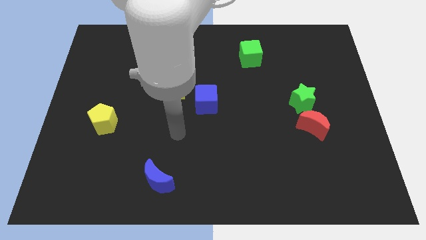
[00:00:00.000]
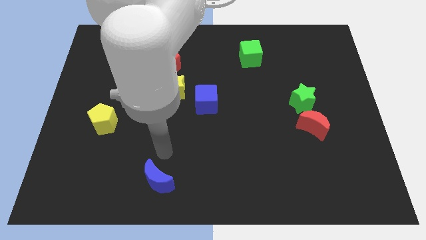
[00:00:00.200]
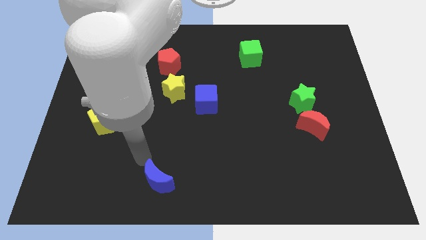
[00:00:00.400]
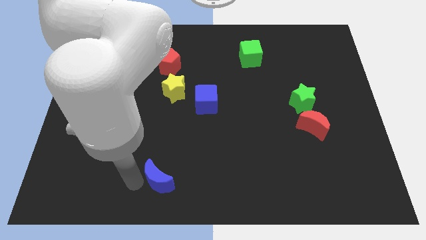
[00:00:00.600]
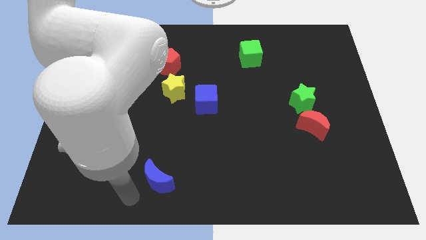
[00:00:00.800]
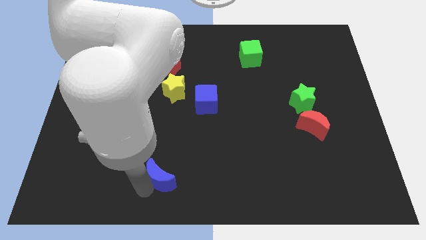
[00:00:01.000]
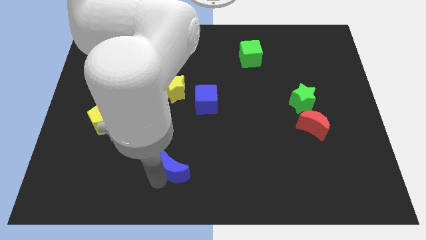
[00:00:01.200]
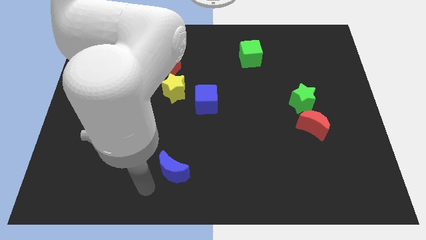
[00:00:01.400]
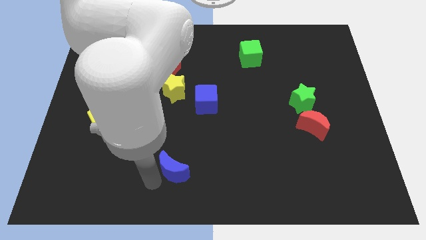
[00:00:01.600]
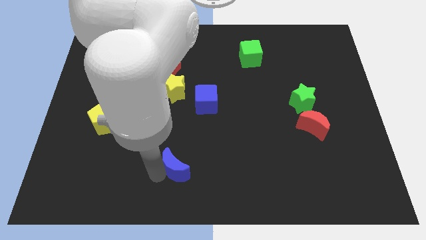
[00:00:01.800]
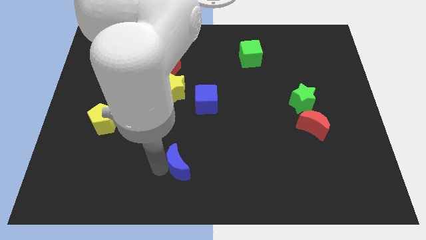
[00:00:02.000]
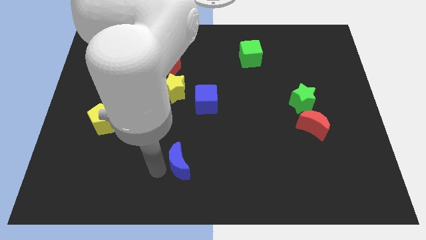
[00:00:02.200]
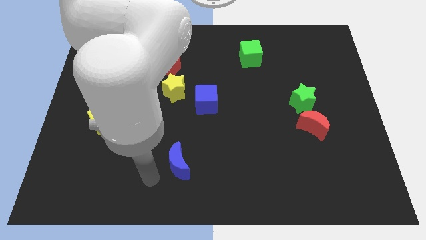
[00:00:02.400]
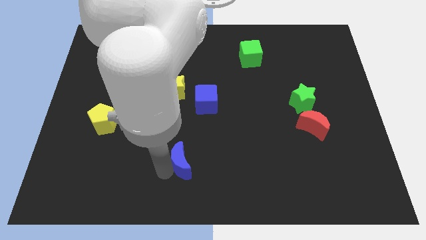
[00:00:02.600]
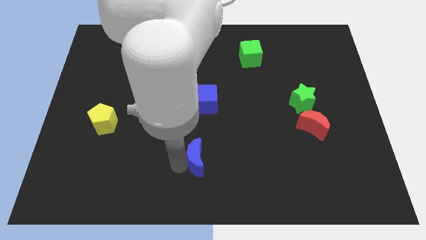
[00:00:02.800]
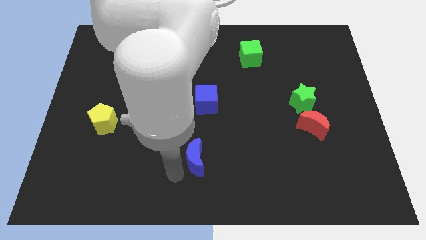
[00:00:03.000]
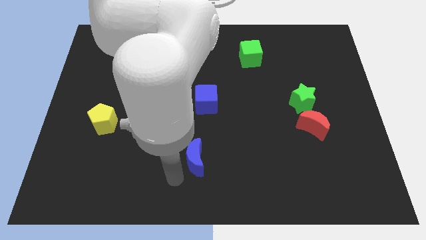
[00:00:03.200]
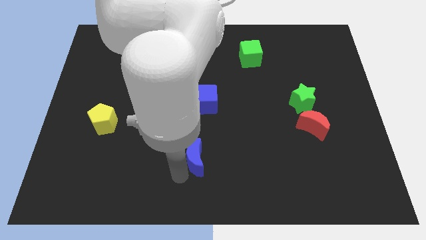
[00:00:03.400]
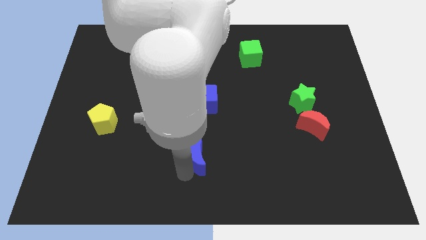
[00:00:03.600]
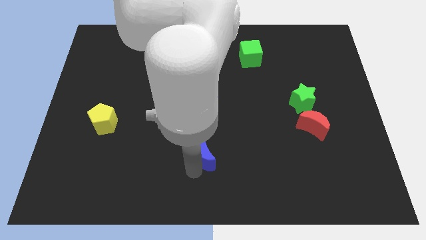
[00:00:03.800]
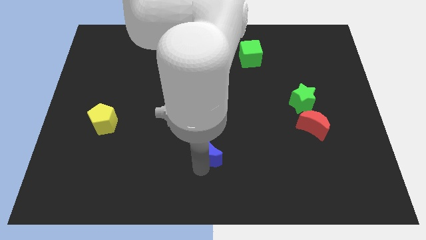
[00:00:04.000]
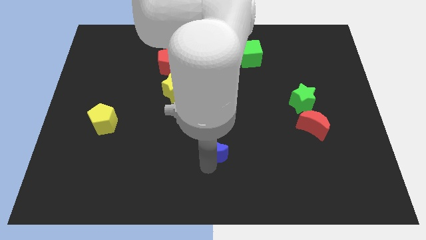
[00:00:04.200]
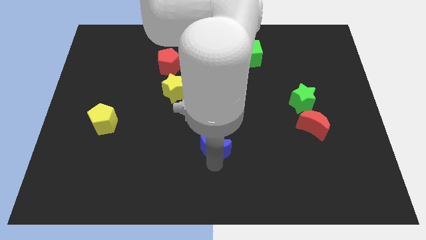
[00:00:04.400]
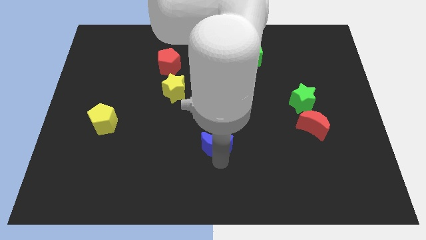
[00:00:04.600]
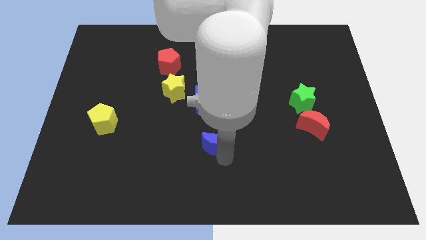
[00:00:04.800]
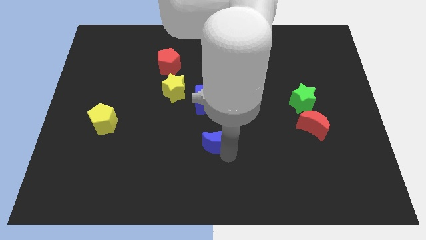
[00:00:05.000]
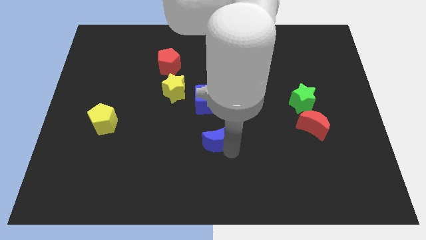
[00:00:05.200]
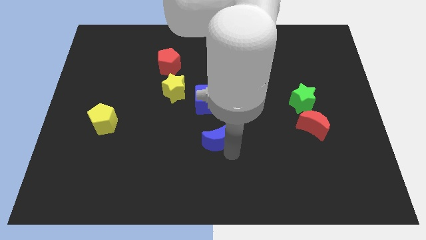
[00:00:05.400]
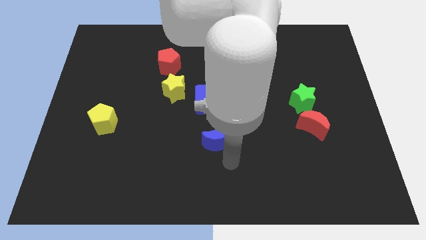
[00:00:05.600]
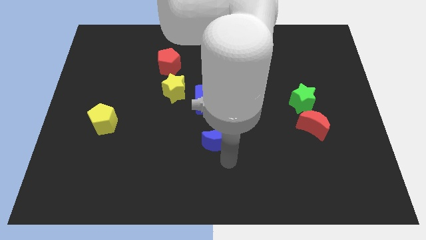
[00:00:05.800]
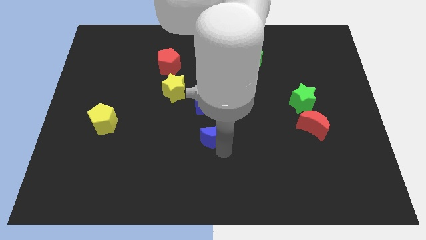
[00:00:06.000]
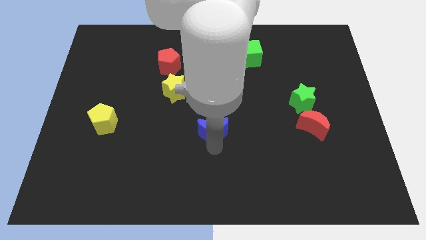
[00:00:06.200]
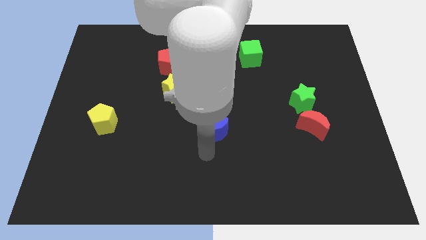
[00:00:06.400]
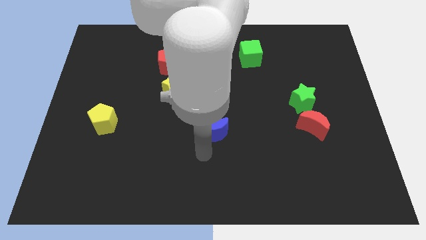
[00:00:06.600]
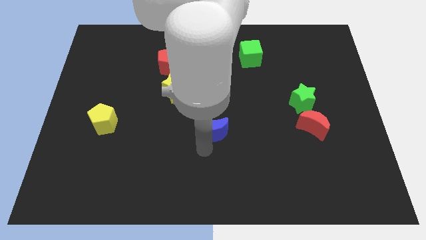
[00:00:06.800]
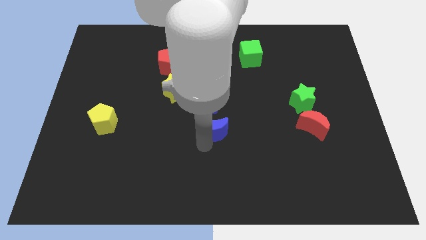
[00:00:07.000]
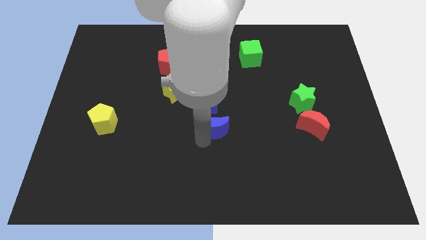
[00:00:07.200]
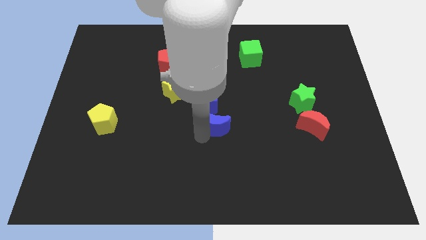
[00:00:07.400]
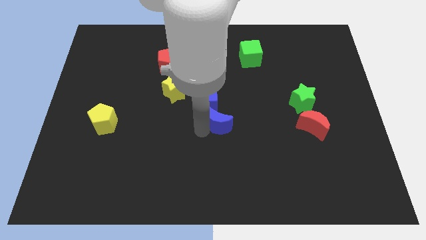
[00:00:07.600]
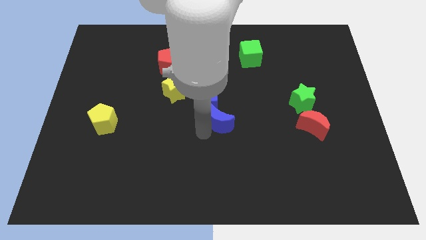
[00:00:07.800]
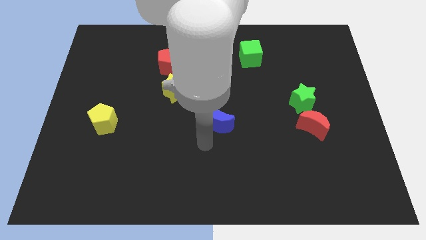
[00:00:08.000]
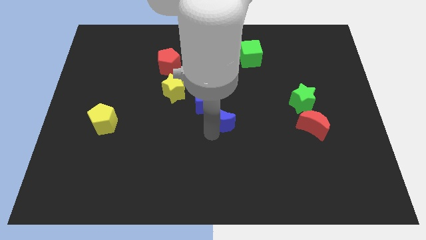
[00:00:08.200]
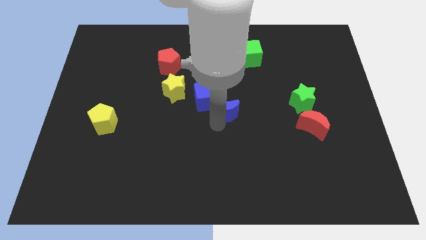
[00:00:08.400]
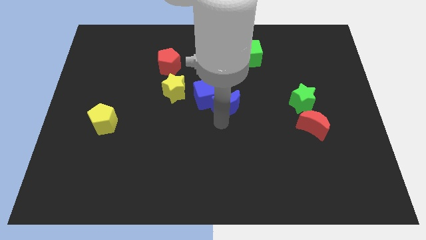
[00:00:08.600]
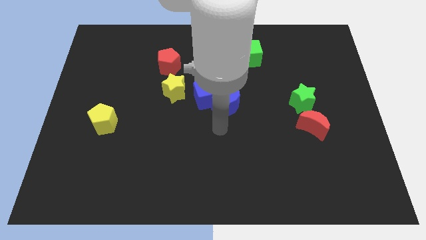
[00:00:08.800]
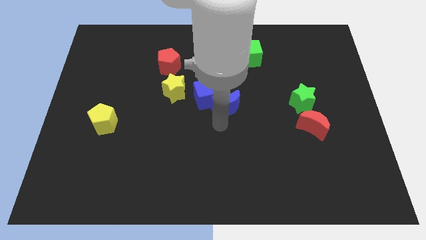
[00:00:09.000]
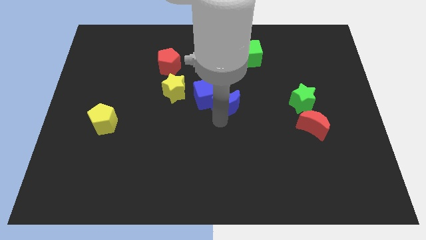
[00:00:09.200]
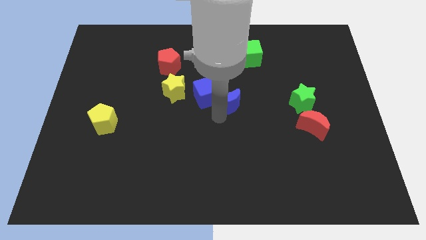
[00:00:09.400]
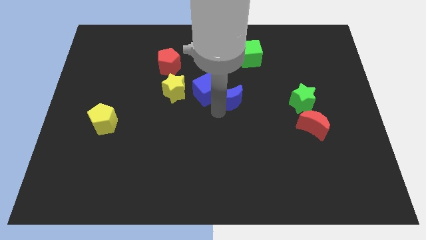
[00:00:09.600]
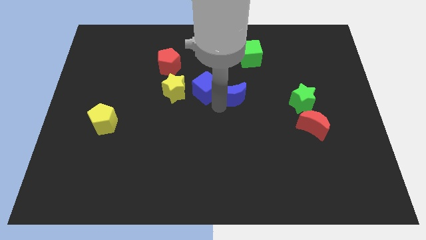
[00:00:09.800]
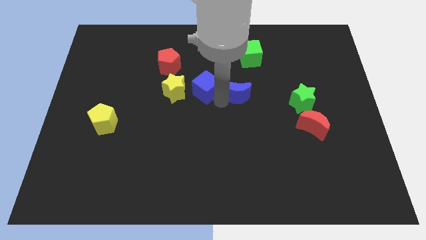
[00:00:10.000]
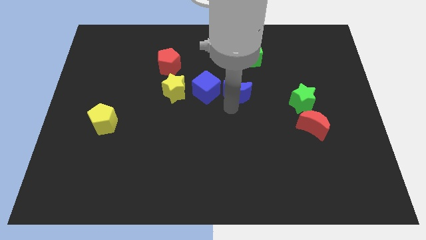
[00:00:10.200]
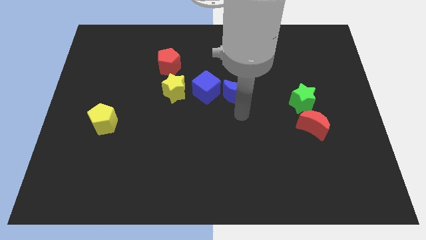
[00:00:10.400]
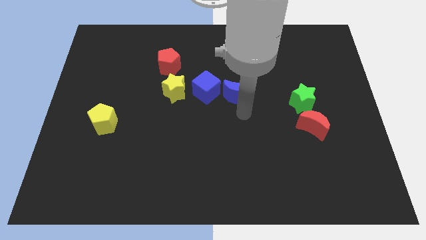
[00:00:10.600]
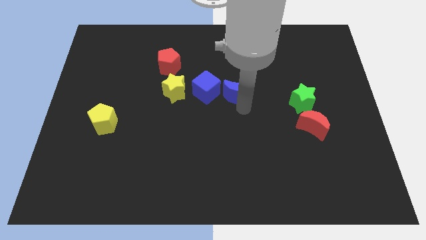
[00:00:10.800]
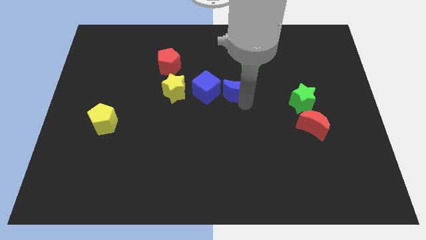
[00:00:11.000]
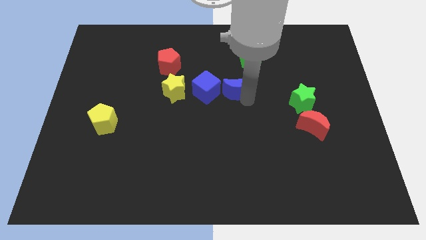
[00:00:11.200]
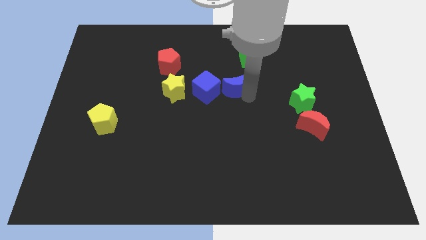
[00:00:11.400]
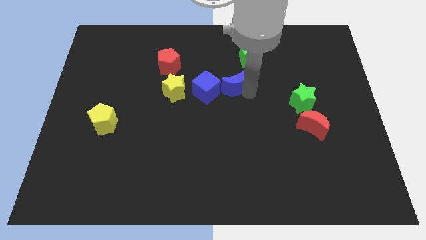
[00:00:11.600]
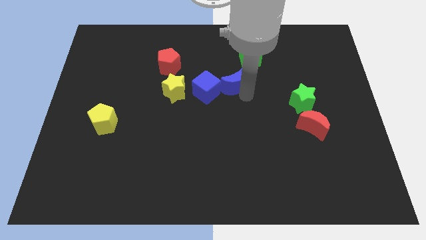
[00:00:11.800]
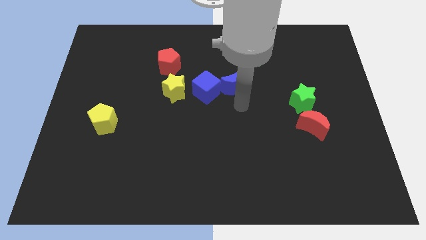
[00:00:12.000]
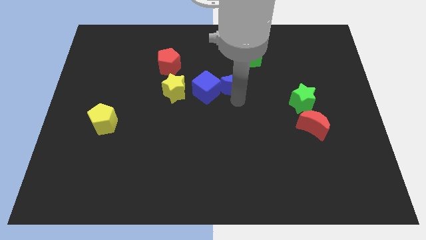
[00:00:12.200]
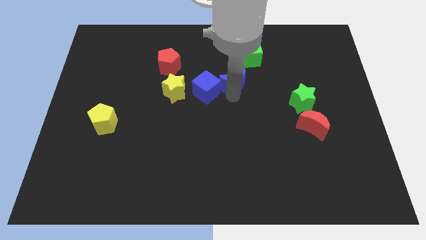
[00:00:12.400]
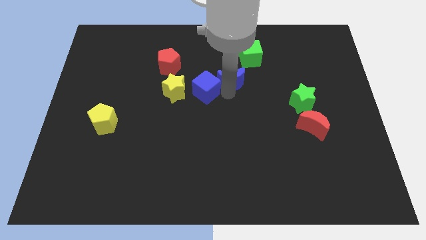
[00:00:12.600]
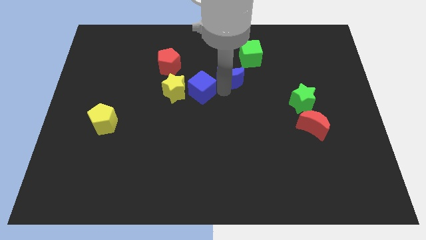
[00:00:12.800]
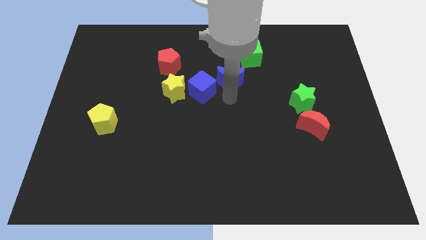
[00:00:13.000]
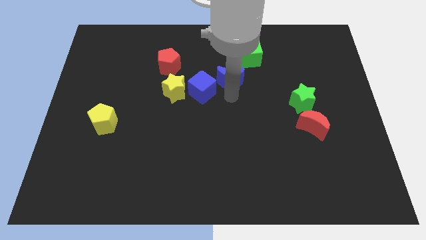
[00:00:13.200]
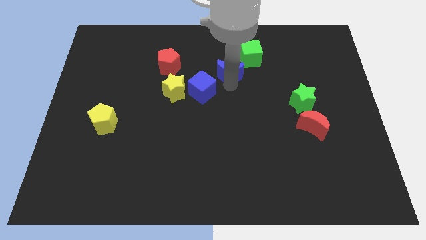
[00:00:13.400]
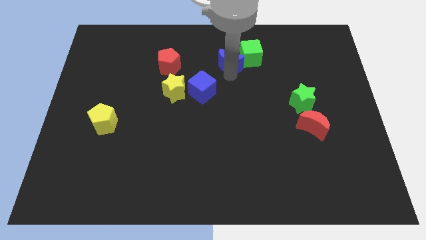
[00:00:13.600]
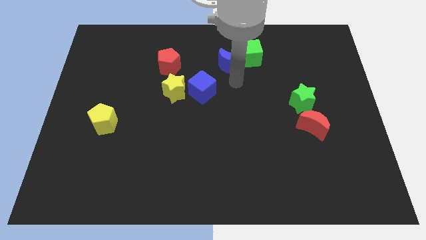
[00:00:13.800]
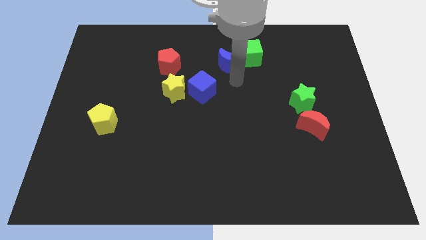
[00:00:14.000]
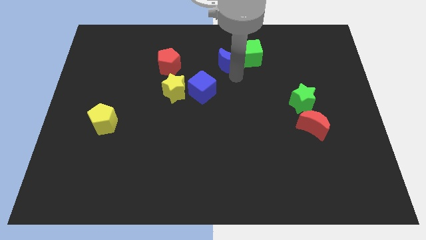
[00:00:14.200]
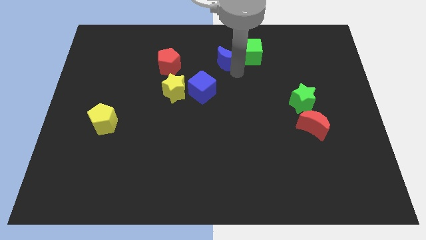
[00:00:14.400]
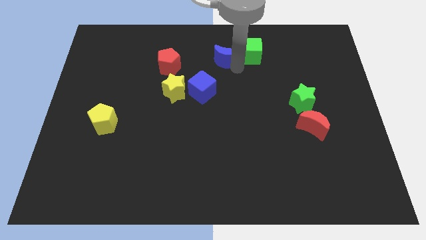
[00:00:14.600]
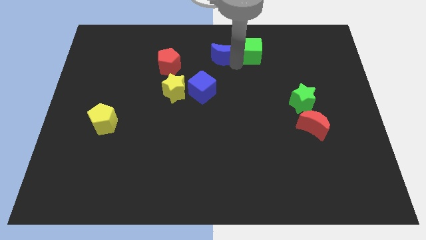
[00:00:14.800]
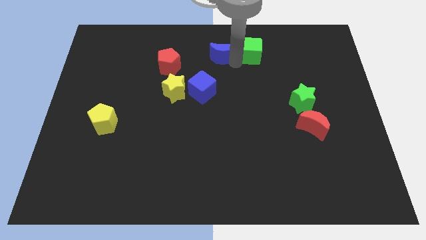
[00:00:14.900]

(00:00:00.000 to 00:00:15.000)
push the blue moon to the top side

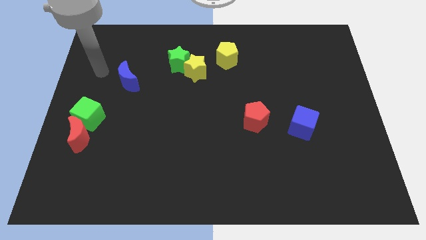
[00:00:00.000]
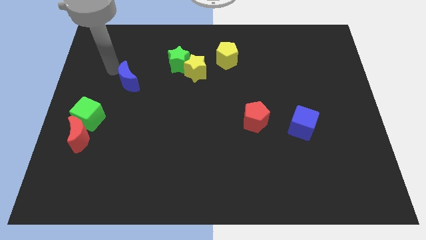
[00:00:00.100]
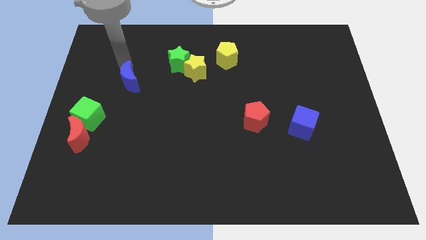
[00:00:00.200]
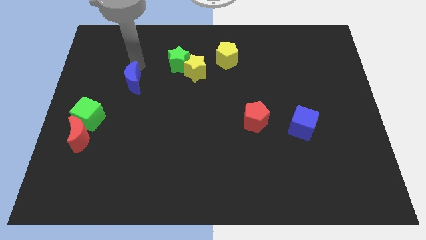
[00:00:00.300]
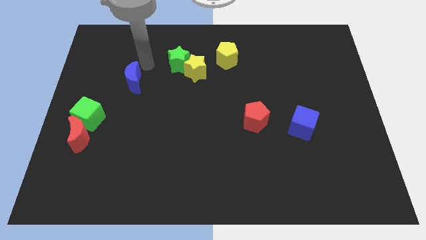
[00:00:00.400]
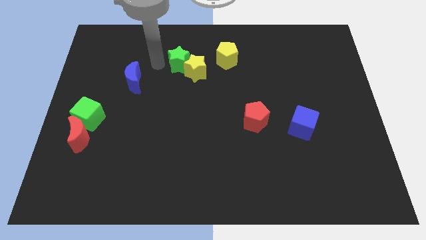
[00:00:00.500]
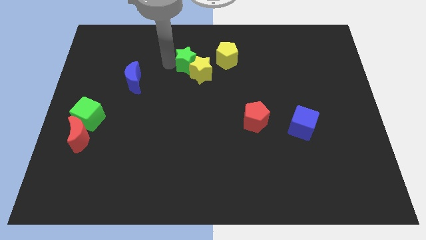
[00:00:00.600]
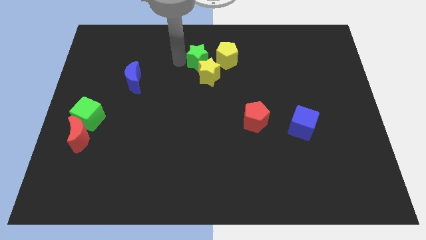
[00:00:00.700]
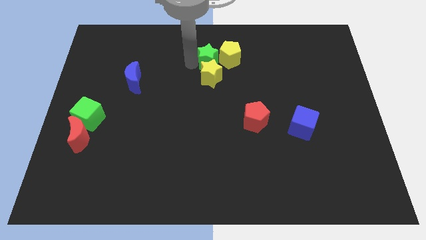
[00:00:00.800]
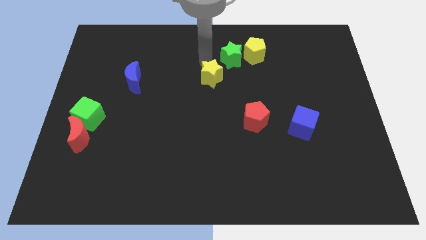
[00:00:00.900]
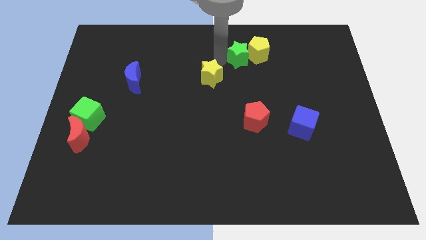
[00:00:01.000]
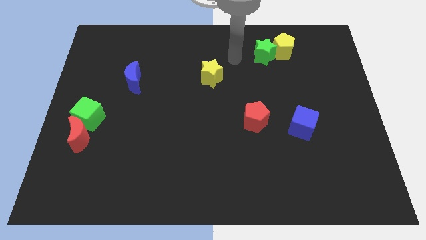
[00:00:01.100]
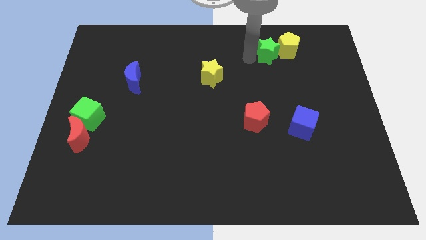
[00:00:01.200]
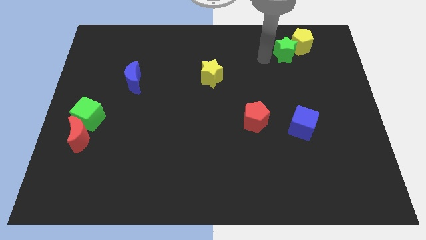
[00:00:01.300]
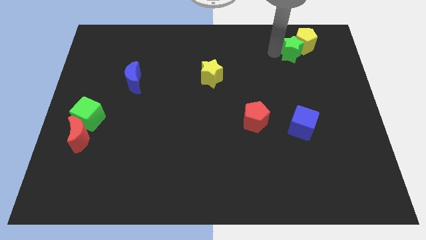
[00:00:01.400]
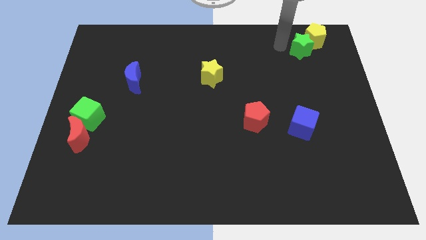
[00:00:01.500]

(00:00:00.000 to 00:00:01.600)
push the yellow pentagon to the top right of the board
